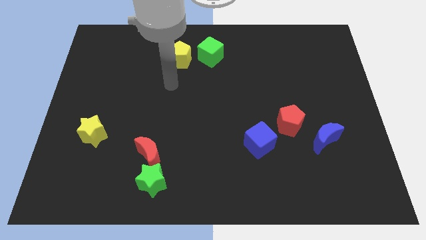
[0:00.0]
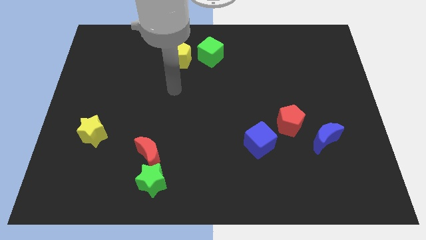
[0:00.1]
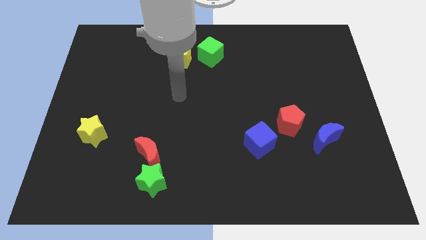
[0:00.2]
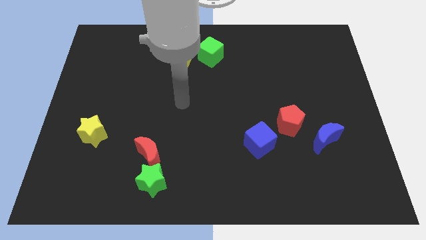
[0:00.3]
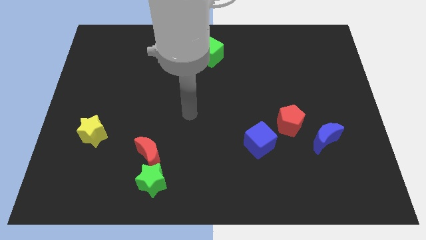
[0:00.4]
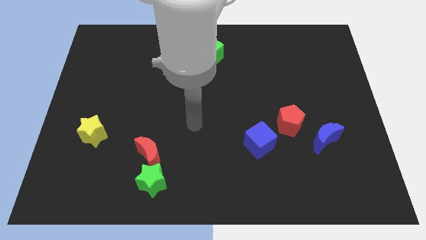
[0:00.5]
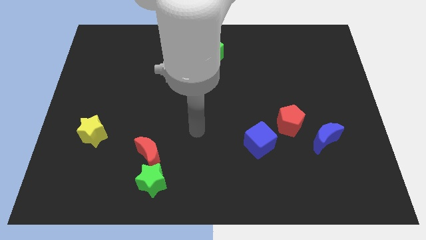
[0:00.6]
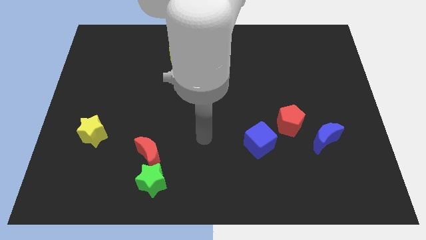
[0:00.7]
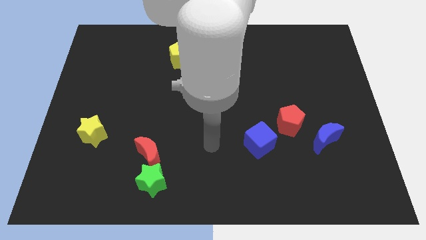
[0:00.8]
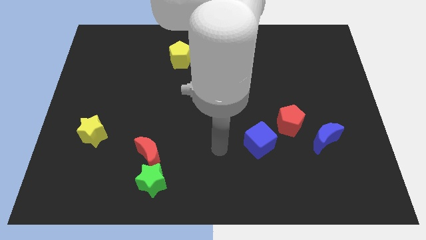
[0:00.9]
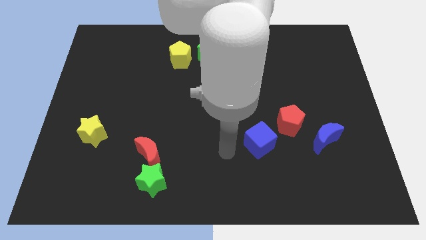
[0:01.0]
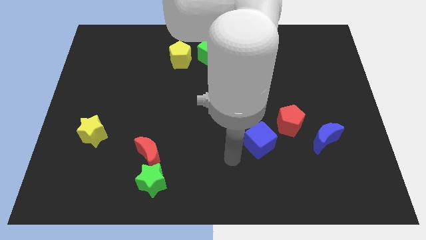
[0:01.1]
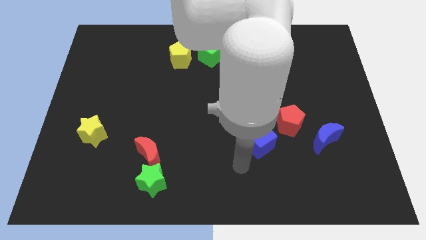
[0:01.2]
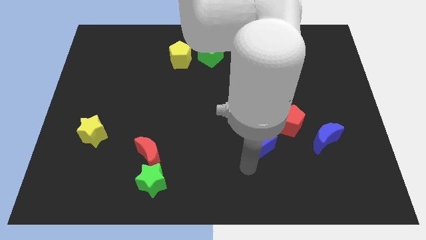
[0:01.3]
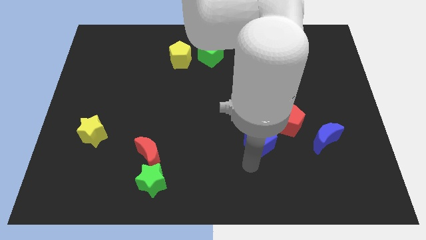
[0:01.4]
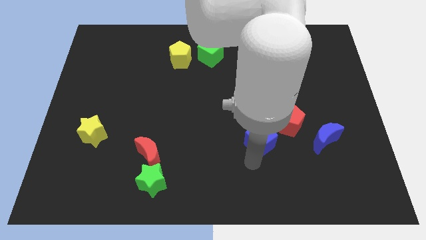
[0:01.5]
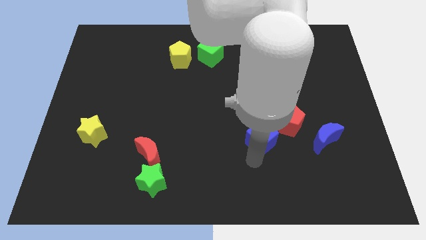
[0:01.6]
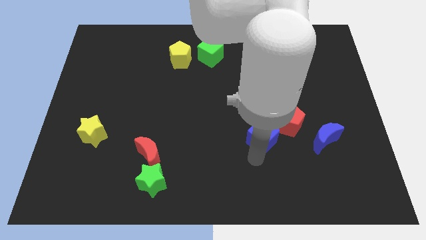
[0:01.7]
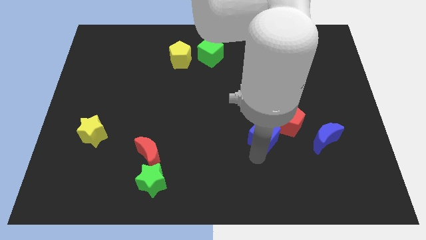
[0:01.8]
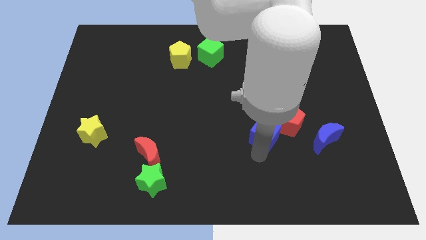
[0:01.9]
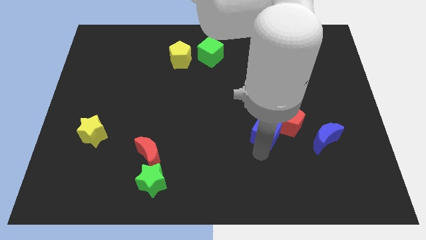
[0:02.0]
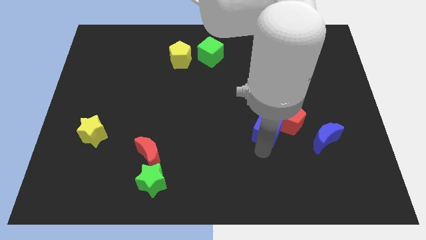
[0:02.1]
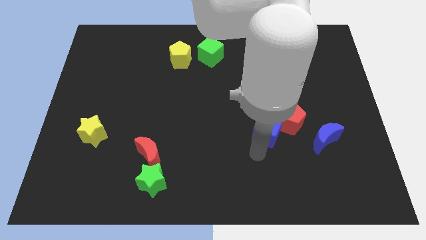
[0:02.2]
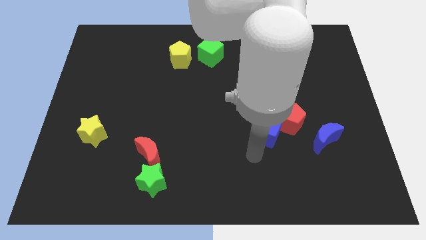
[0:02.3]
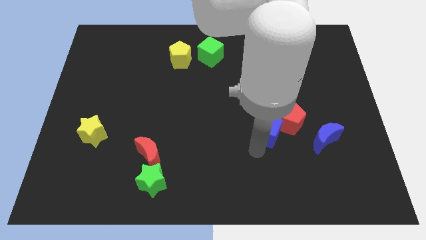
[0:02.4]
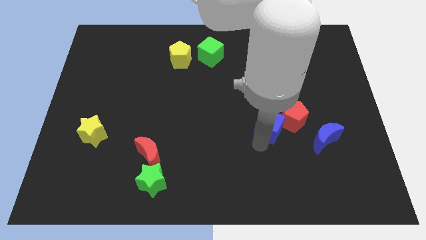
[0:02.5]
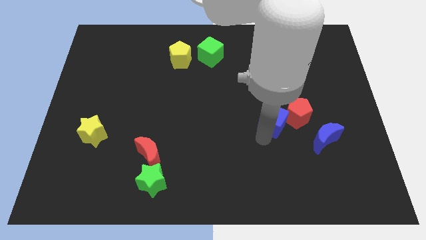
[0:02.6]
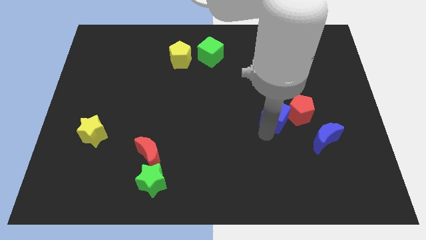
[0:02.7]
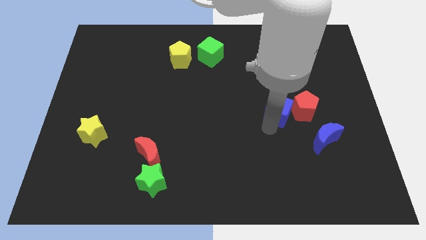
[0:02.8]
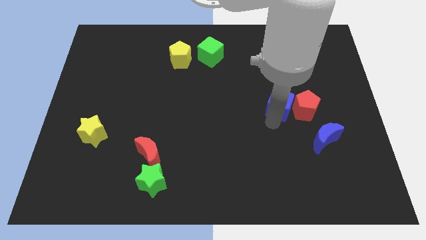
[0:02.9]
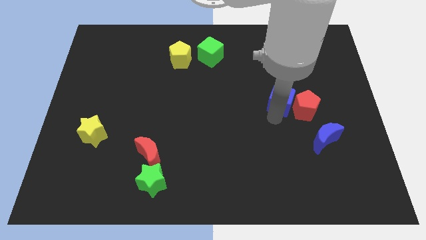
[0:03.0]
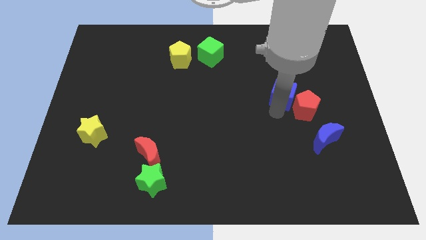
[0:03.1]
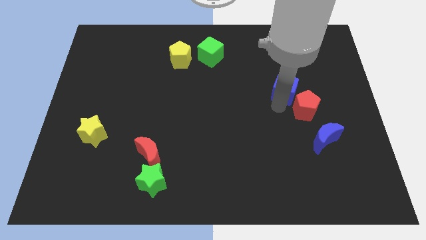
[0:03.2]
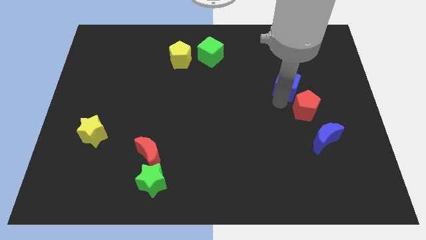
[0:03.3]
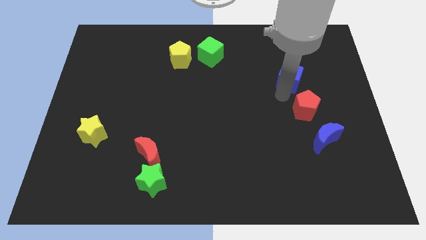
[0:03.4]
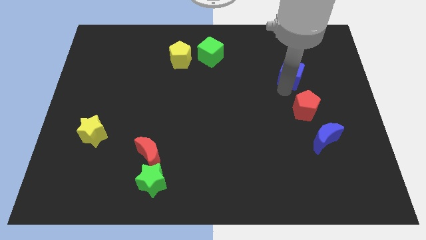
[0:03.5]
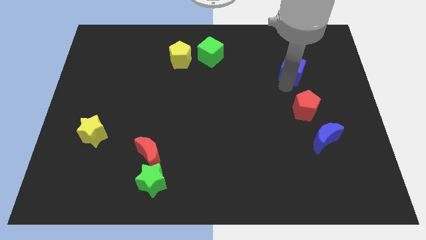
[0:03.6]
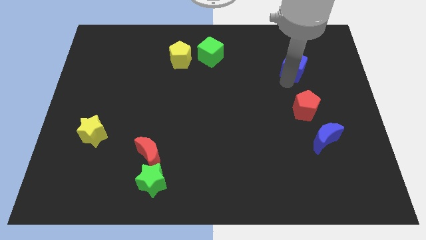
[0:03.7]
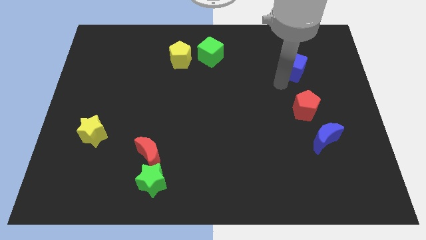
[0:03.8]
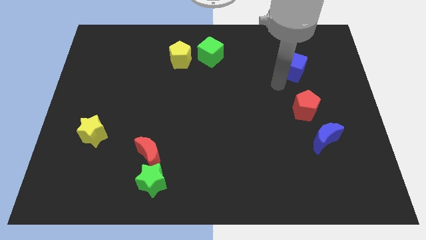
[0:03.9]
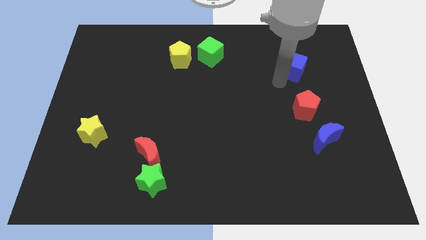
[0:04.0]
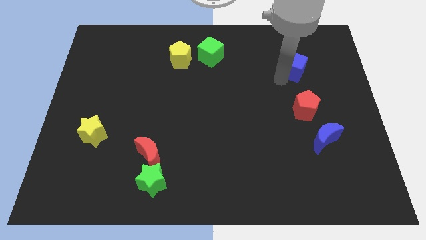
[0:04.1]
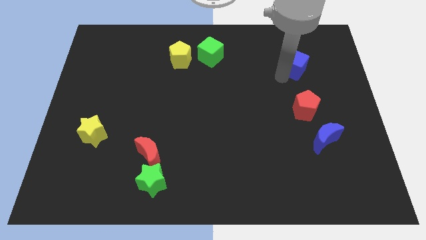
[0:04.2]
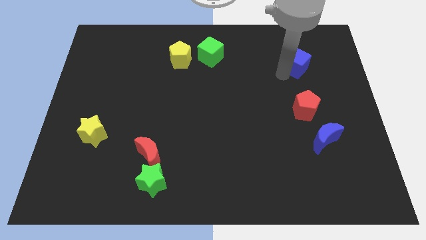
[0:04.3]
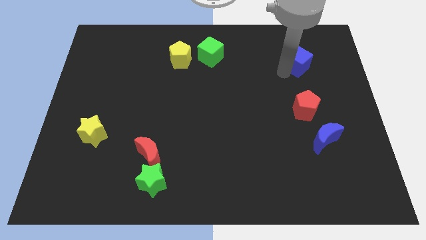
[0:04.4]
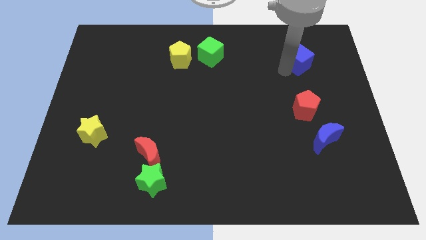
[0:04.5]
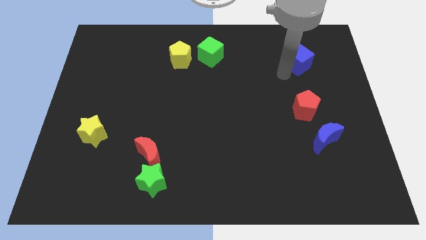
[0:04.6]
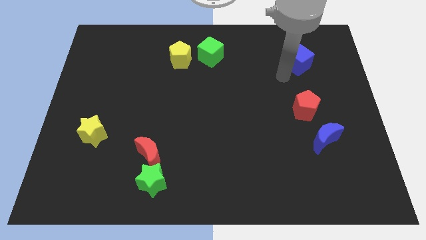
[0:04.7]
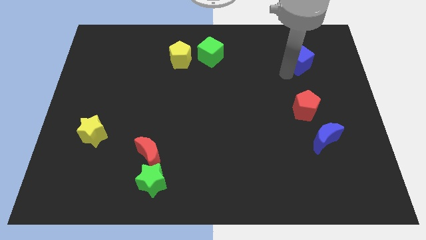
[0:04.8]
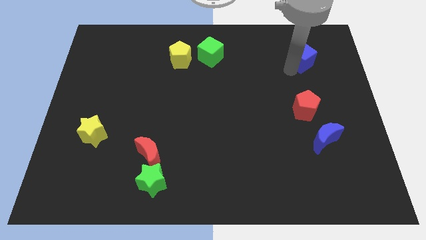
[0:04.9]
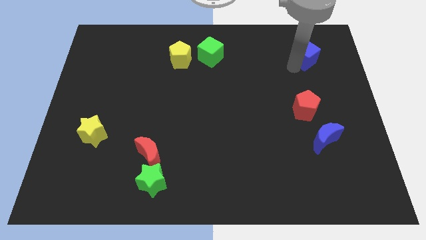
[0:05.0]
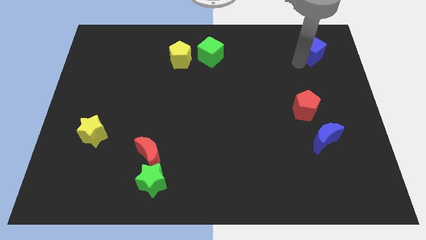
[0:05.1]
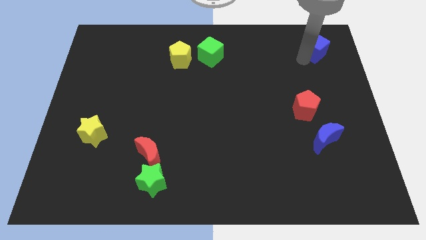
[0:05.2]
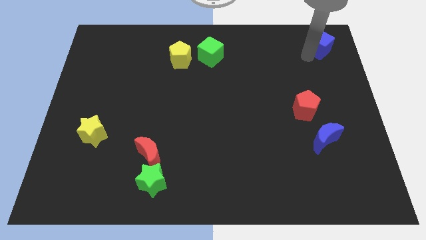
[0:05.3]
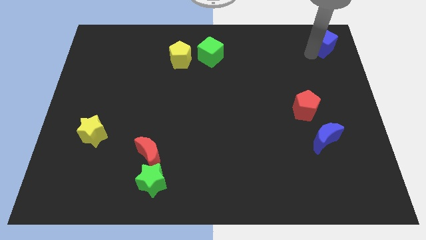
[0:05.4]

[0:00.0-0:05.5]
move the blue cube to the top right of the board
